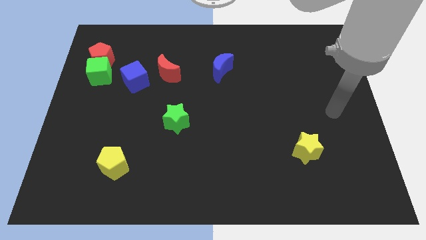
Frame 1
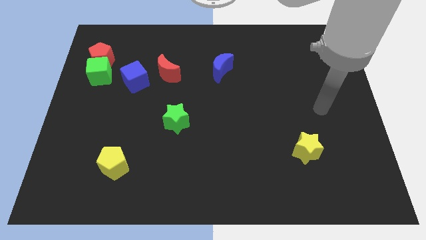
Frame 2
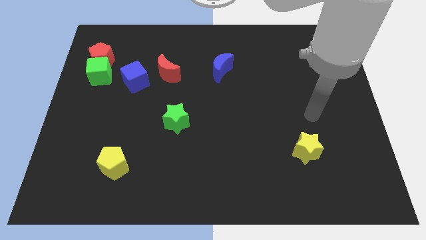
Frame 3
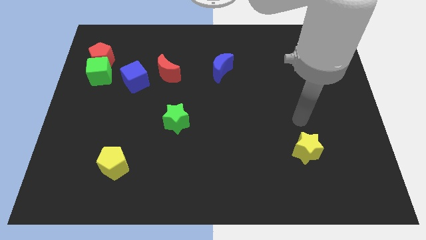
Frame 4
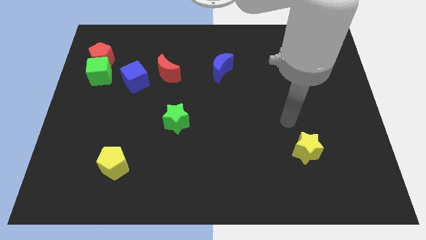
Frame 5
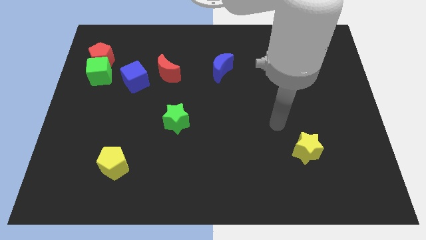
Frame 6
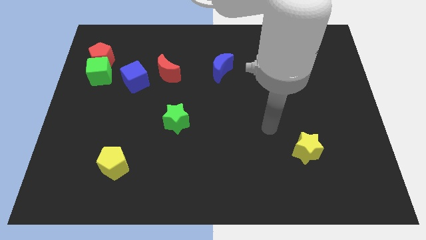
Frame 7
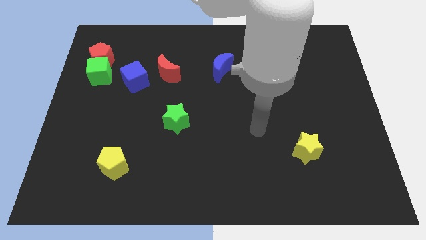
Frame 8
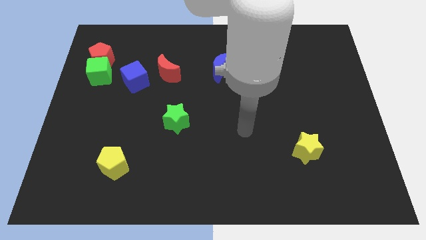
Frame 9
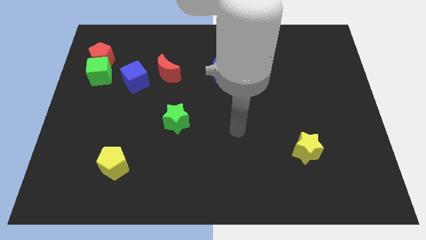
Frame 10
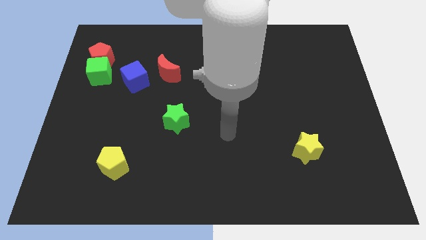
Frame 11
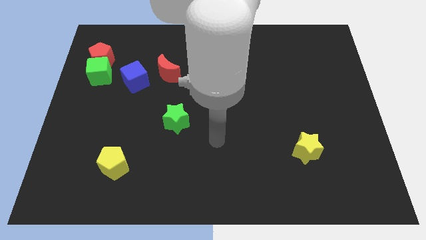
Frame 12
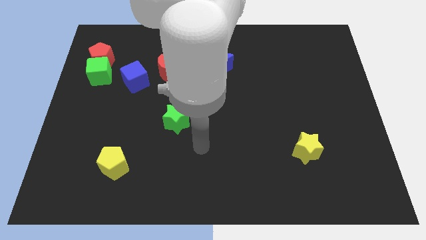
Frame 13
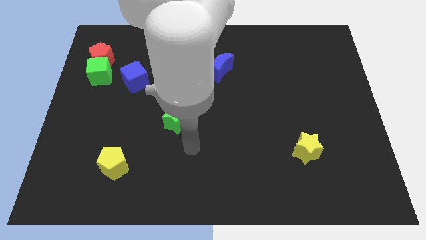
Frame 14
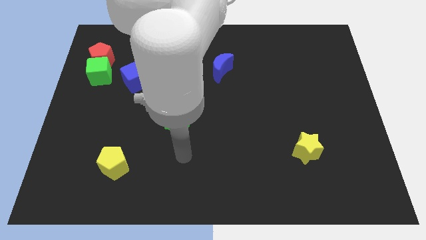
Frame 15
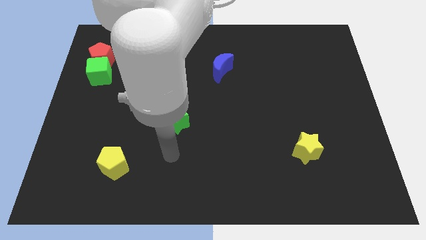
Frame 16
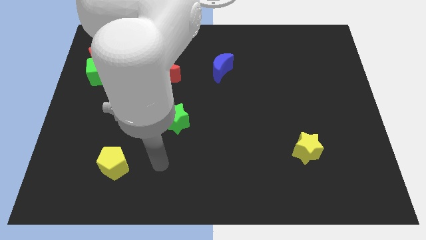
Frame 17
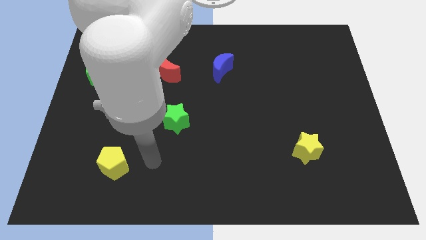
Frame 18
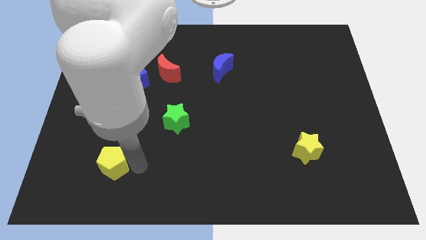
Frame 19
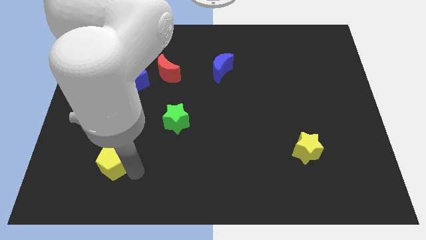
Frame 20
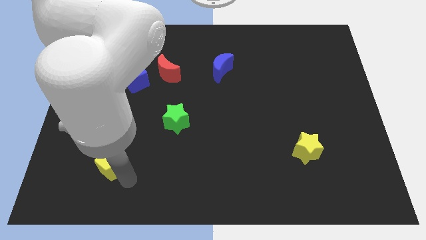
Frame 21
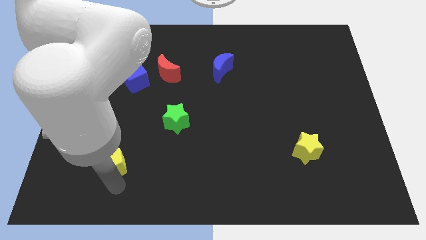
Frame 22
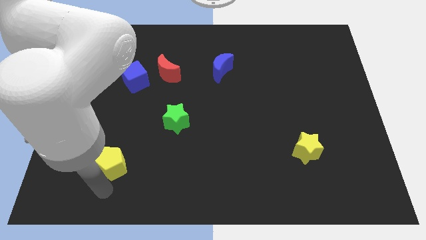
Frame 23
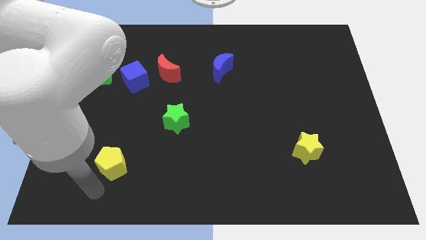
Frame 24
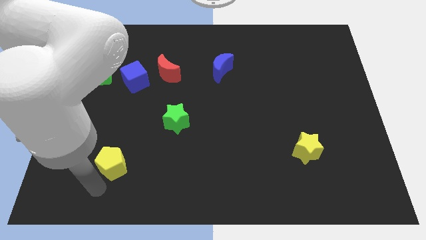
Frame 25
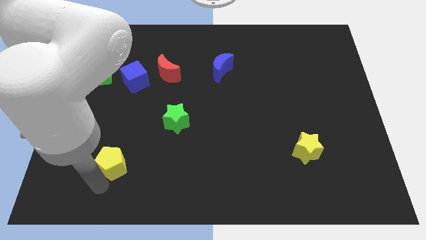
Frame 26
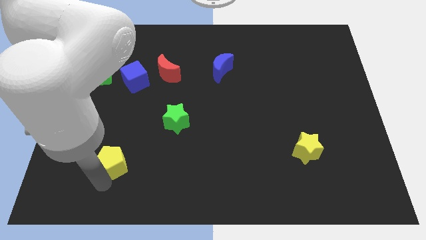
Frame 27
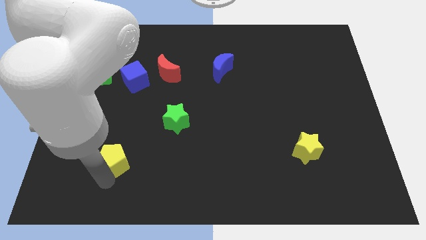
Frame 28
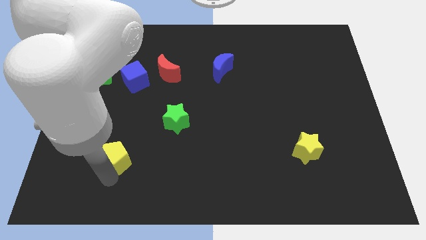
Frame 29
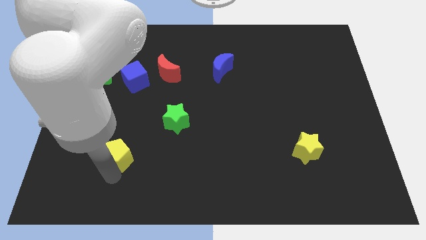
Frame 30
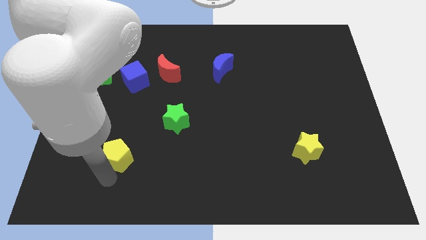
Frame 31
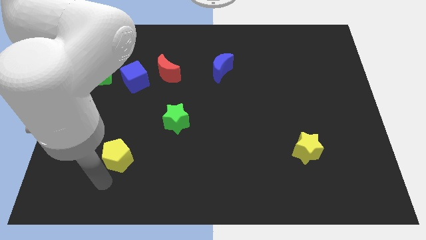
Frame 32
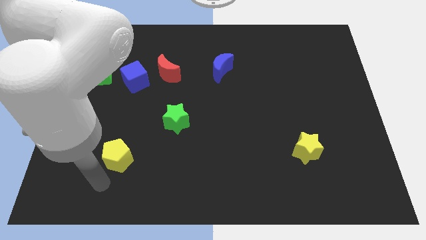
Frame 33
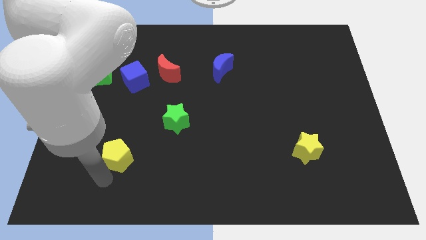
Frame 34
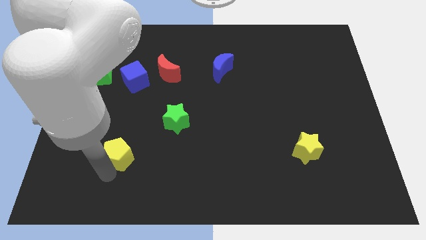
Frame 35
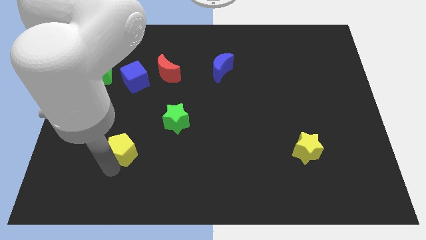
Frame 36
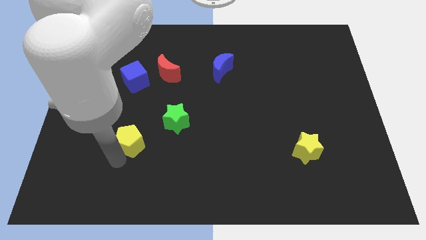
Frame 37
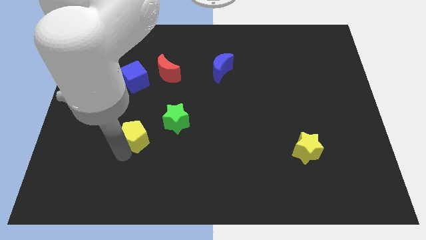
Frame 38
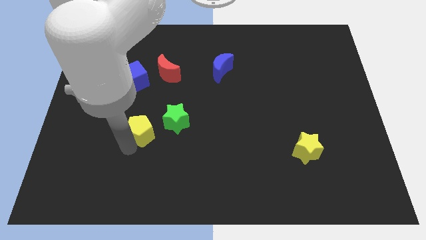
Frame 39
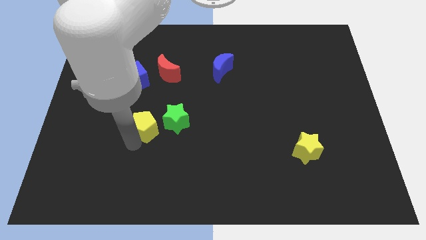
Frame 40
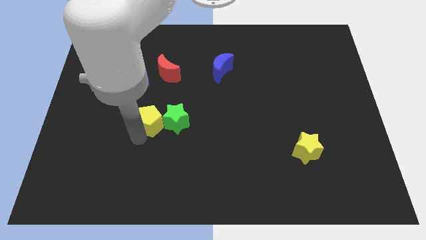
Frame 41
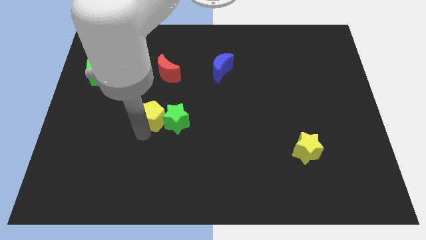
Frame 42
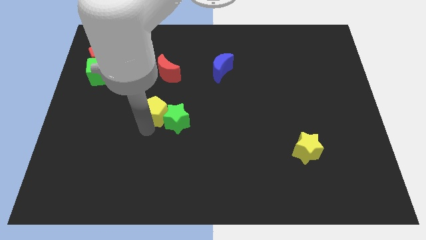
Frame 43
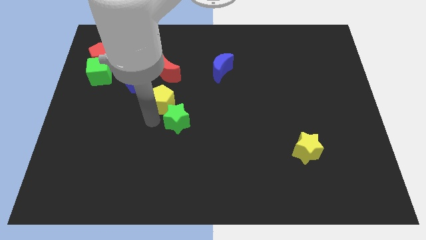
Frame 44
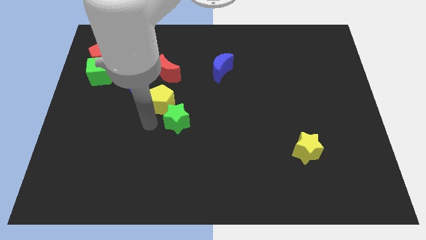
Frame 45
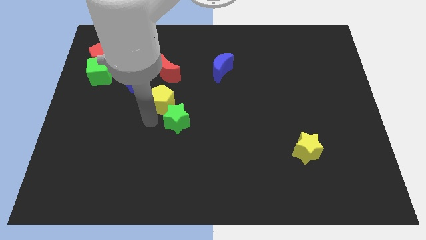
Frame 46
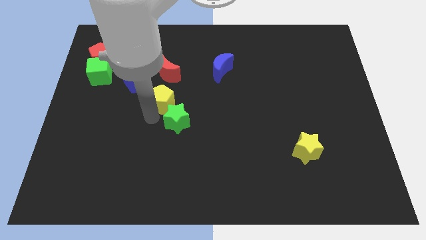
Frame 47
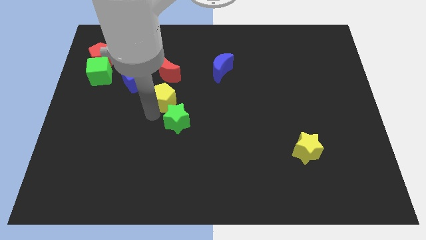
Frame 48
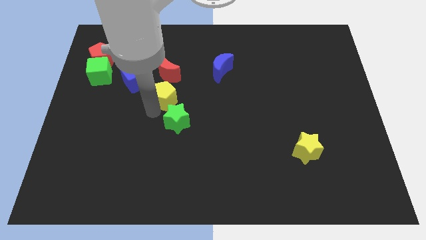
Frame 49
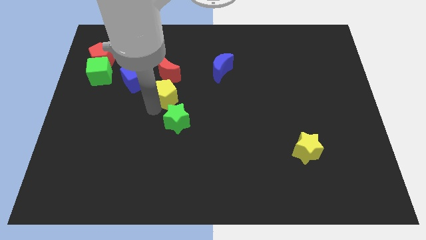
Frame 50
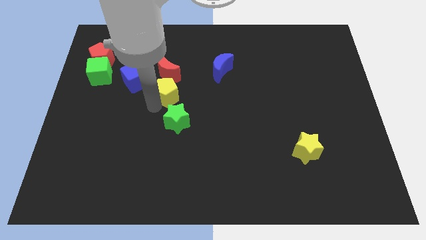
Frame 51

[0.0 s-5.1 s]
slide the yellow pentagon to the right side of the blue cube

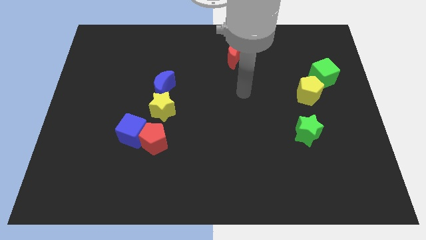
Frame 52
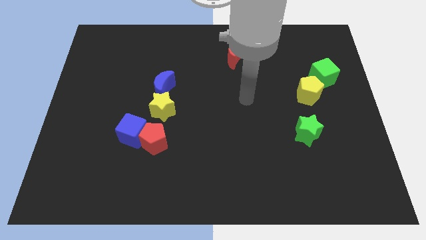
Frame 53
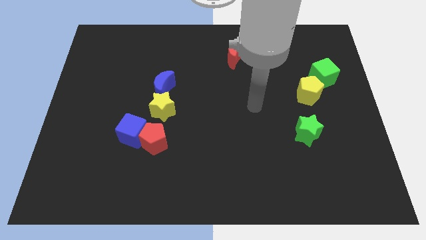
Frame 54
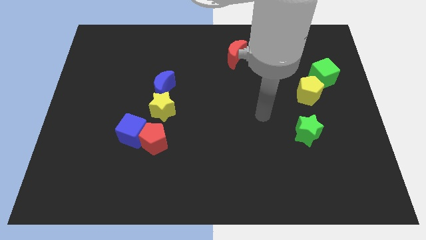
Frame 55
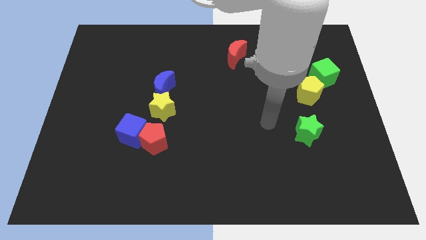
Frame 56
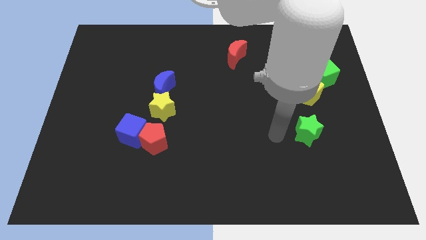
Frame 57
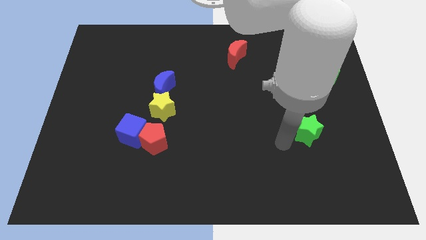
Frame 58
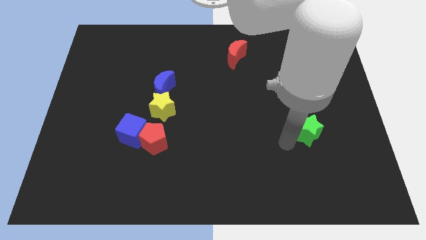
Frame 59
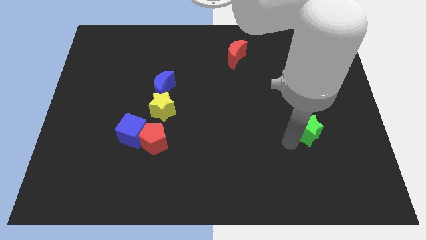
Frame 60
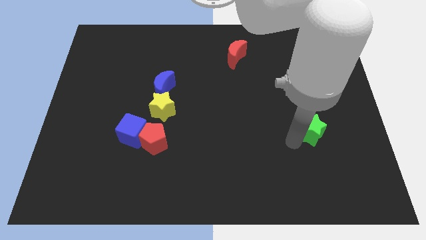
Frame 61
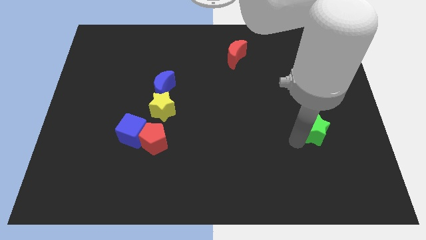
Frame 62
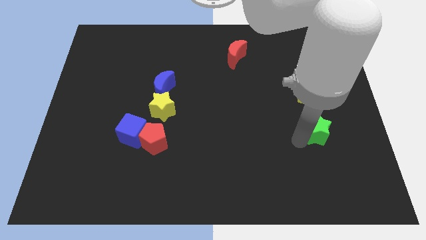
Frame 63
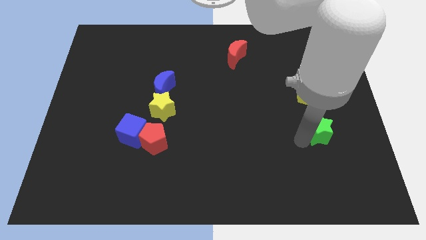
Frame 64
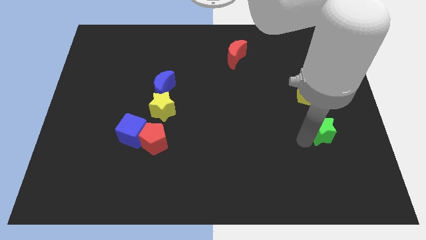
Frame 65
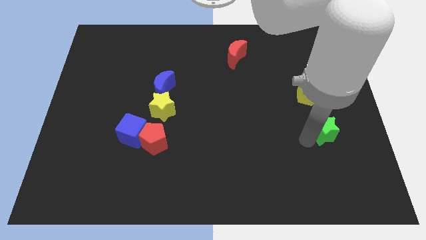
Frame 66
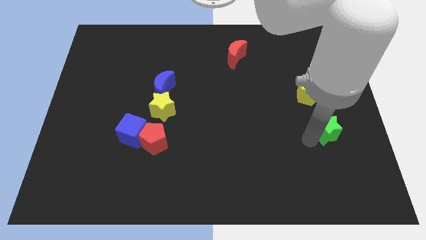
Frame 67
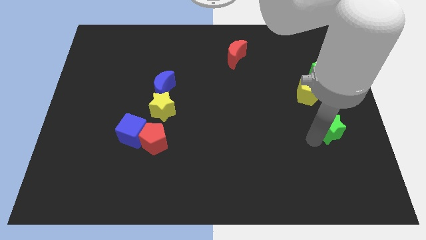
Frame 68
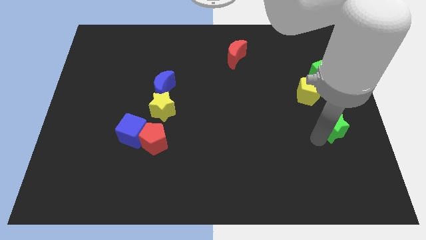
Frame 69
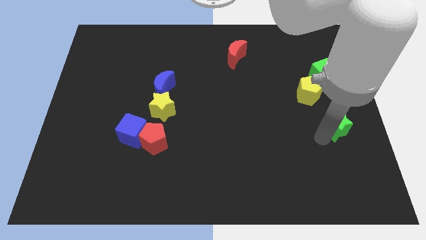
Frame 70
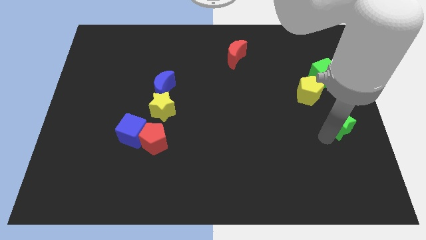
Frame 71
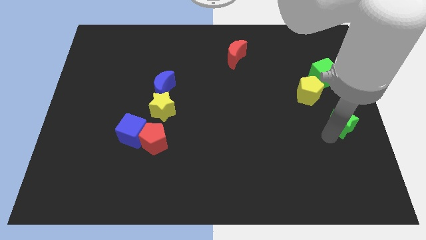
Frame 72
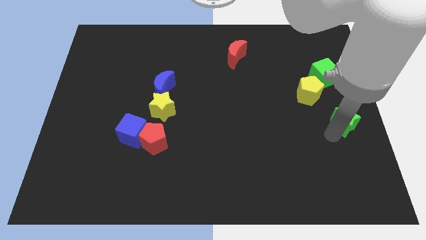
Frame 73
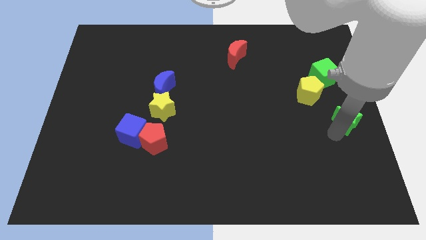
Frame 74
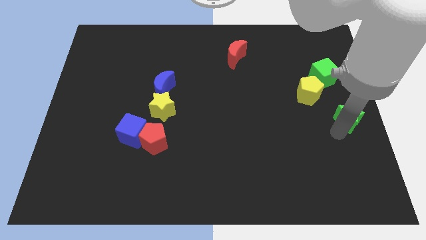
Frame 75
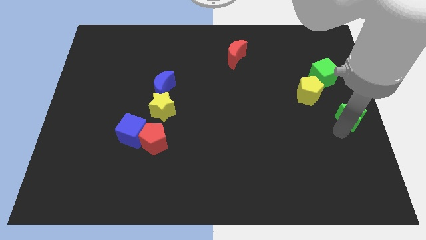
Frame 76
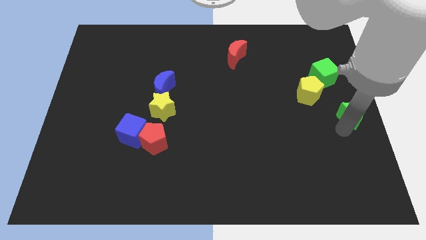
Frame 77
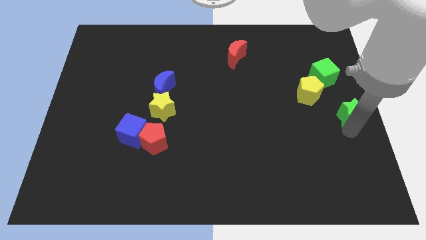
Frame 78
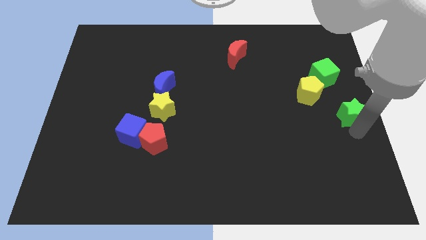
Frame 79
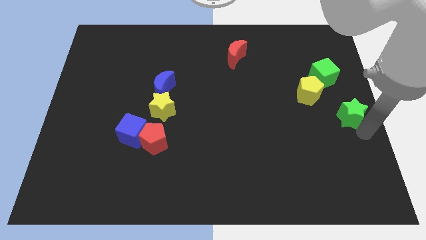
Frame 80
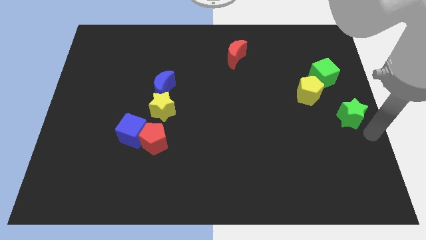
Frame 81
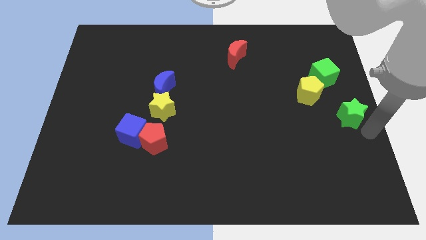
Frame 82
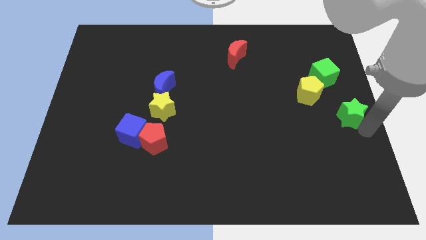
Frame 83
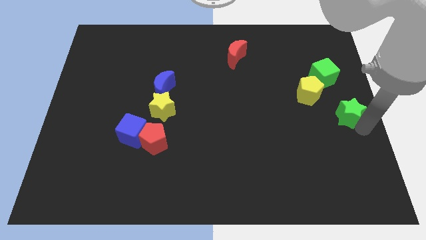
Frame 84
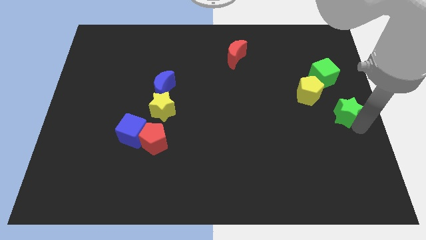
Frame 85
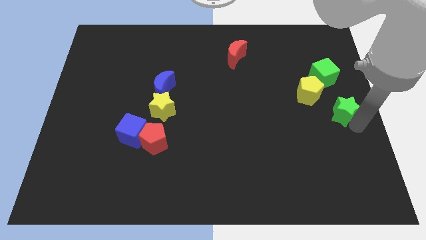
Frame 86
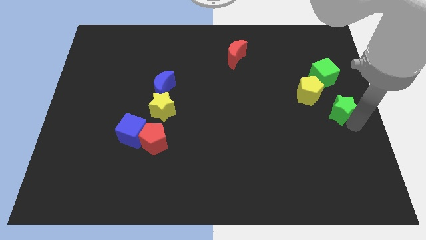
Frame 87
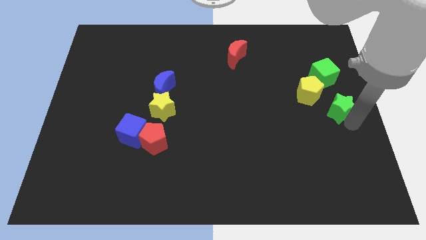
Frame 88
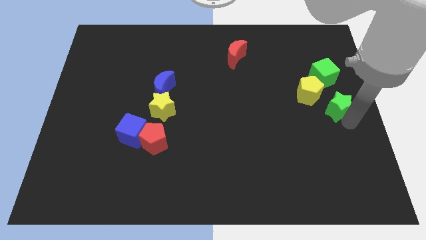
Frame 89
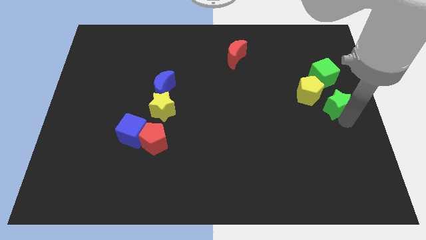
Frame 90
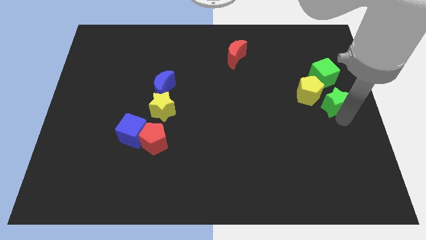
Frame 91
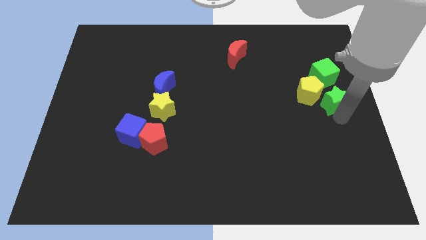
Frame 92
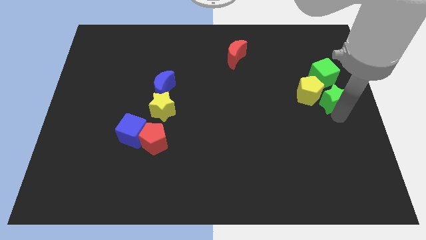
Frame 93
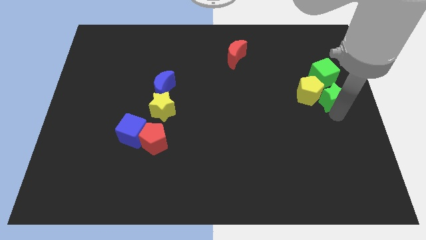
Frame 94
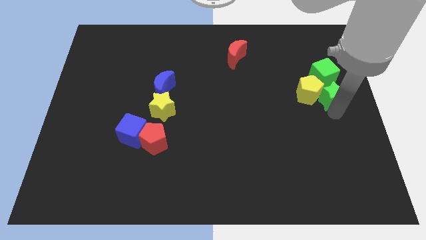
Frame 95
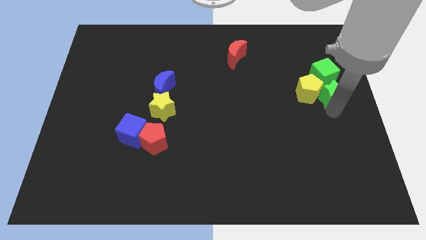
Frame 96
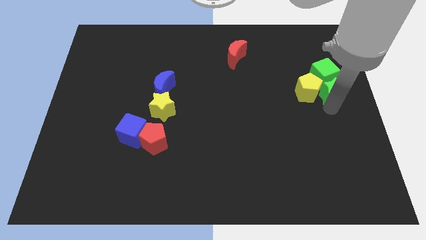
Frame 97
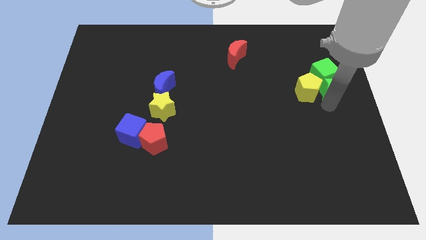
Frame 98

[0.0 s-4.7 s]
slide the green star diagonally up and to the right of the yellow pentagon
